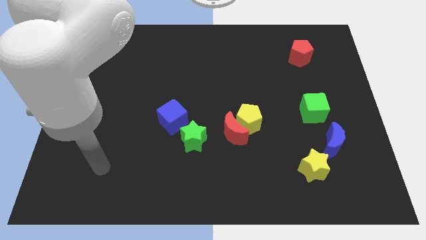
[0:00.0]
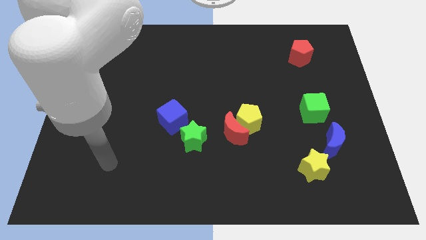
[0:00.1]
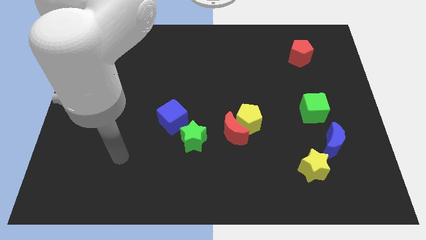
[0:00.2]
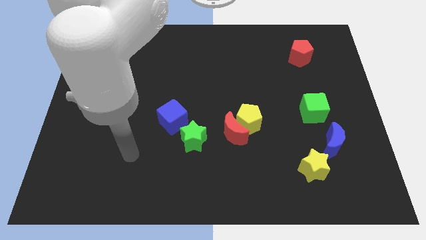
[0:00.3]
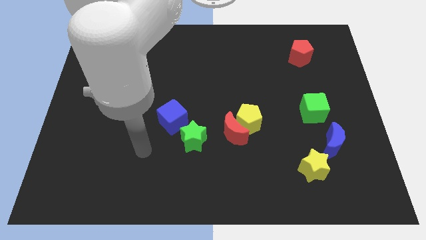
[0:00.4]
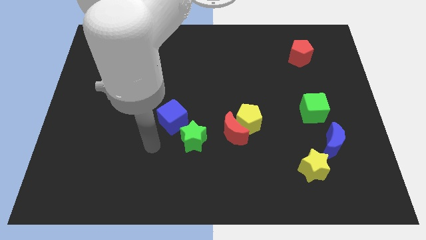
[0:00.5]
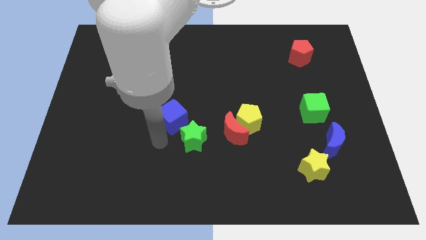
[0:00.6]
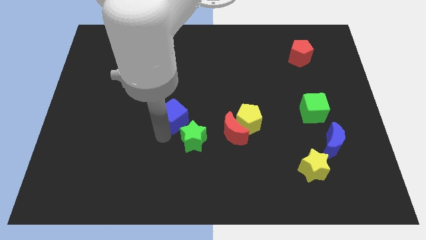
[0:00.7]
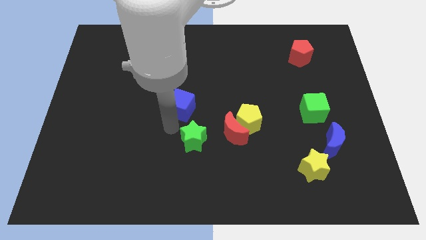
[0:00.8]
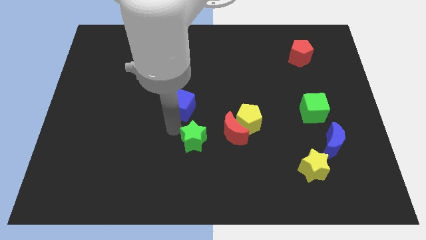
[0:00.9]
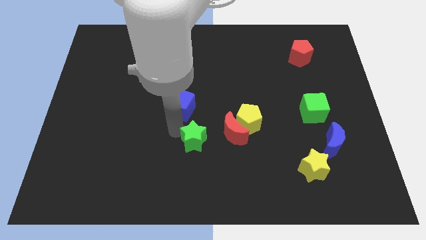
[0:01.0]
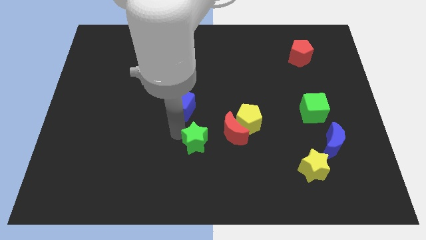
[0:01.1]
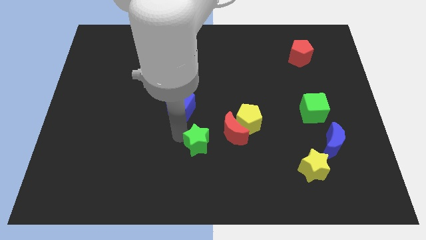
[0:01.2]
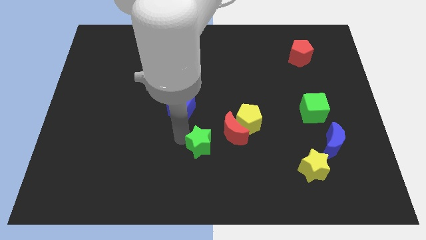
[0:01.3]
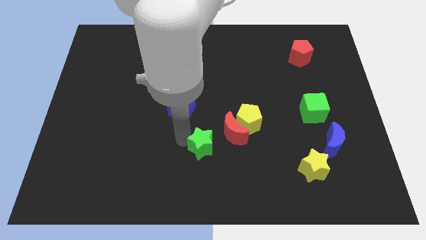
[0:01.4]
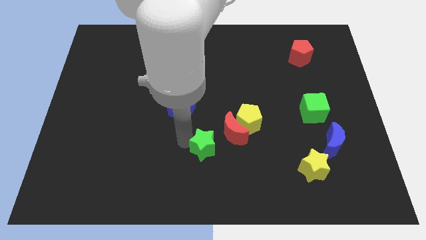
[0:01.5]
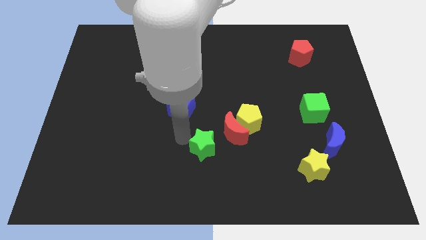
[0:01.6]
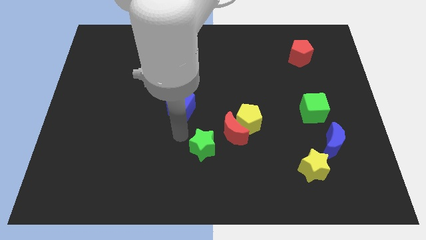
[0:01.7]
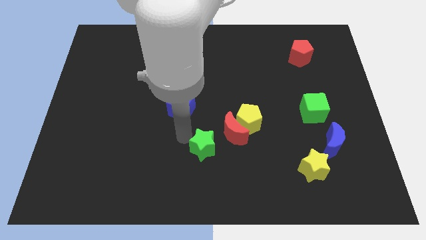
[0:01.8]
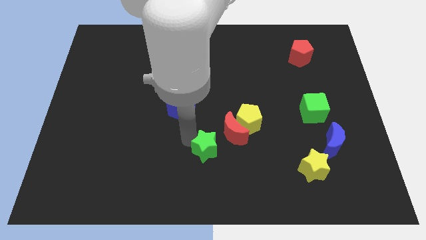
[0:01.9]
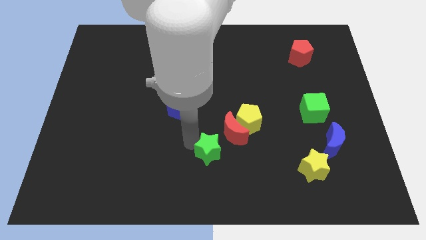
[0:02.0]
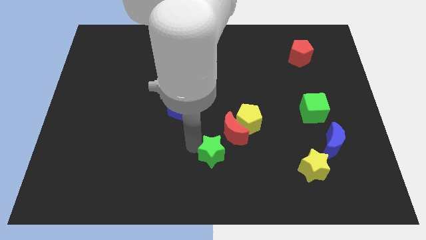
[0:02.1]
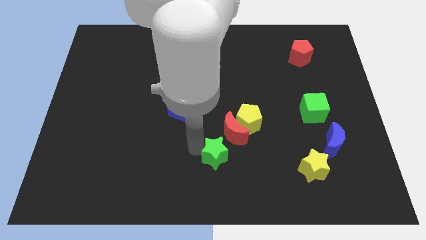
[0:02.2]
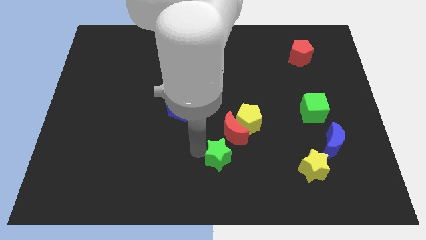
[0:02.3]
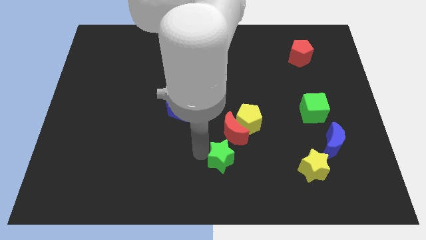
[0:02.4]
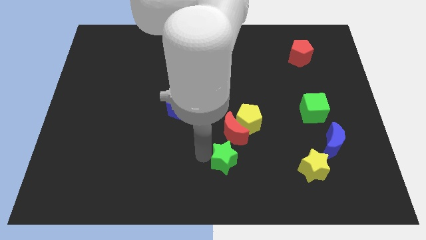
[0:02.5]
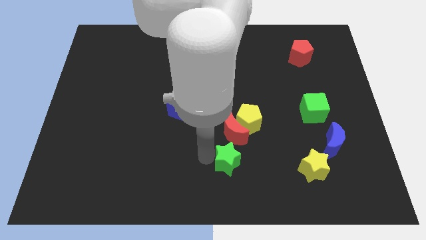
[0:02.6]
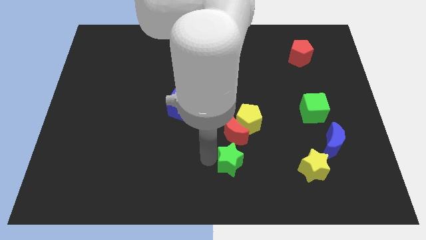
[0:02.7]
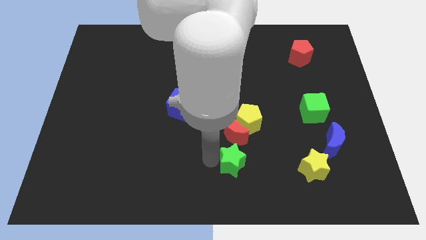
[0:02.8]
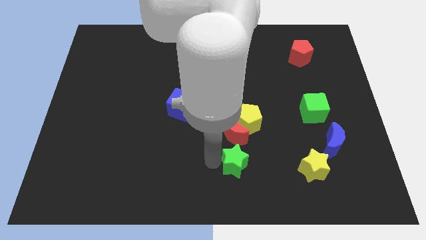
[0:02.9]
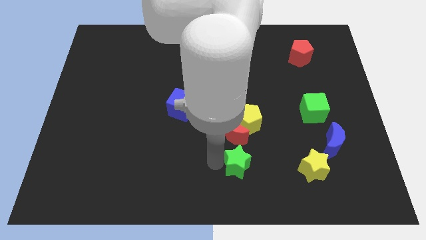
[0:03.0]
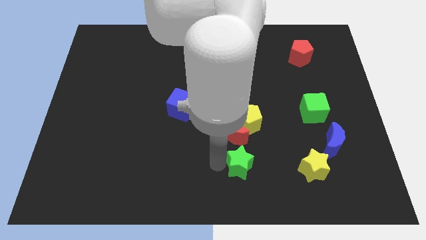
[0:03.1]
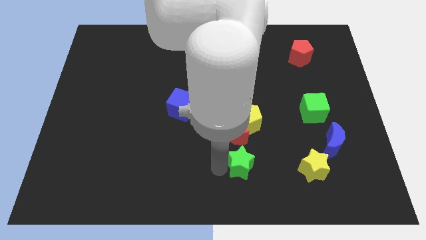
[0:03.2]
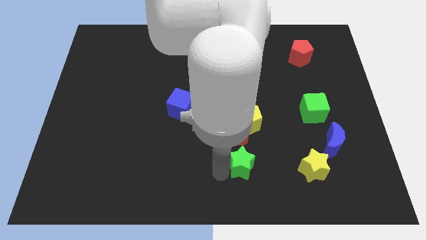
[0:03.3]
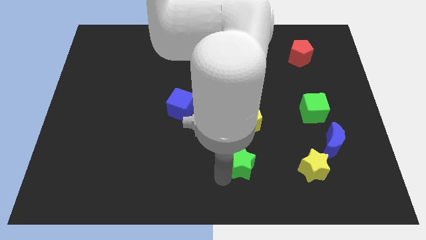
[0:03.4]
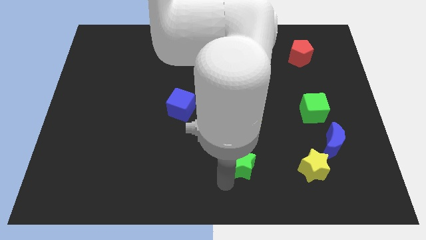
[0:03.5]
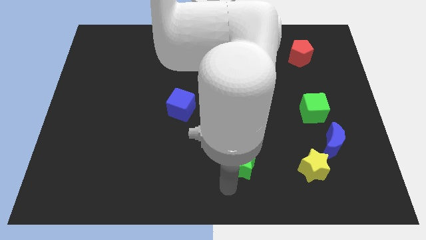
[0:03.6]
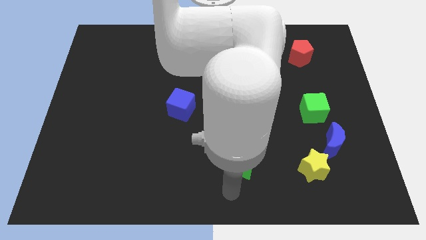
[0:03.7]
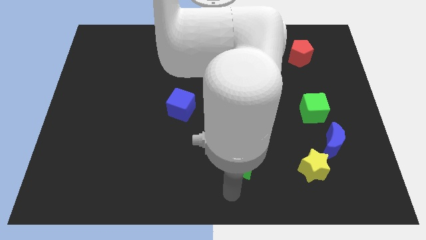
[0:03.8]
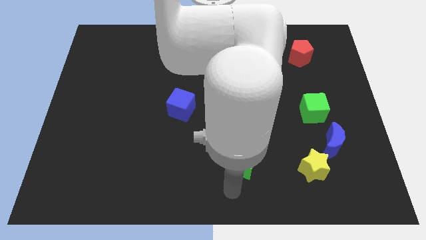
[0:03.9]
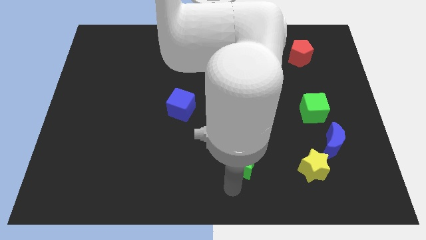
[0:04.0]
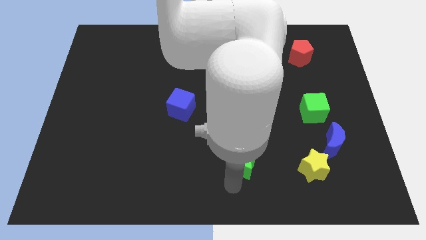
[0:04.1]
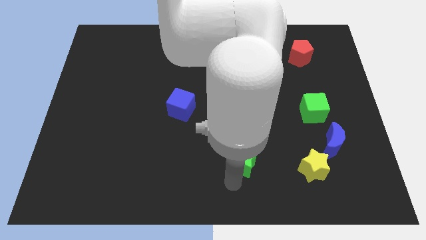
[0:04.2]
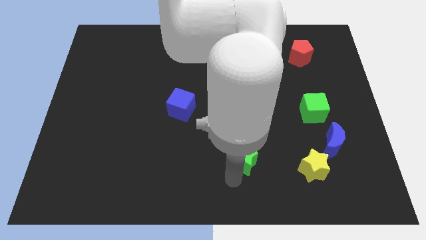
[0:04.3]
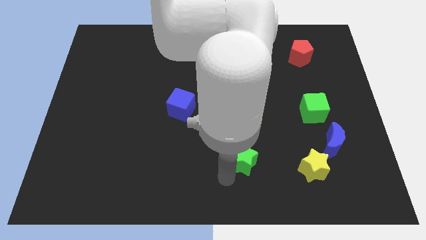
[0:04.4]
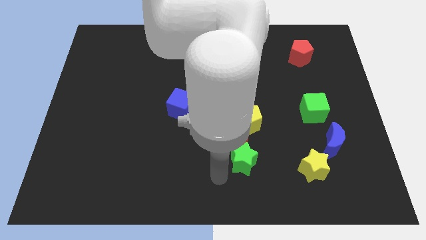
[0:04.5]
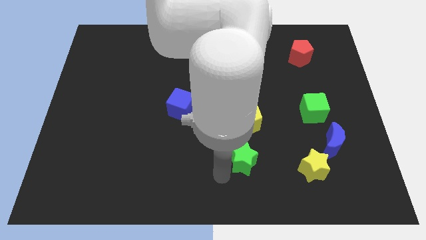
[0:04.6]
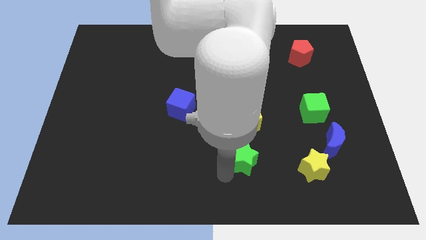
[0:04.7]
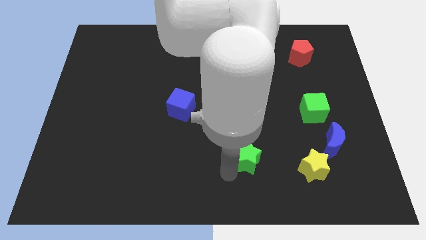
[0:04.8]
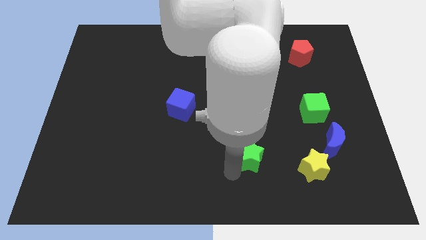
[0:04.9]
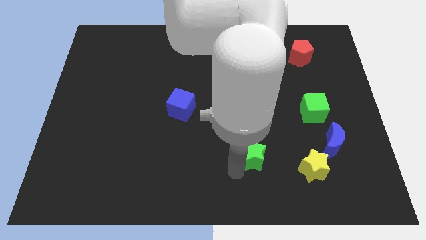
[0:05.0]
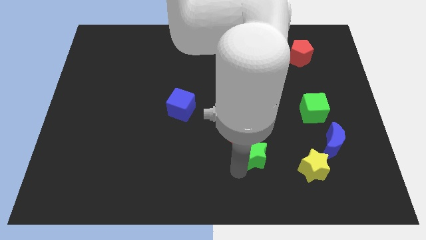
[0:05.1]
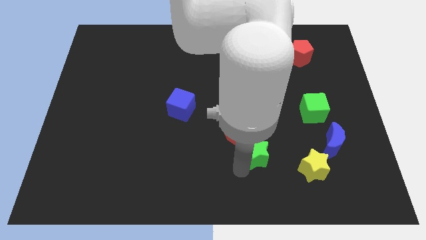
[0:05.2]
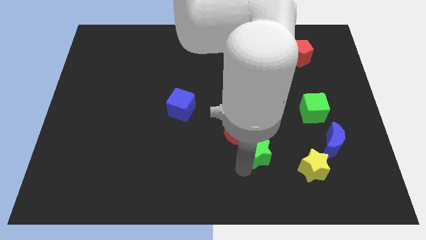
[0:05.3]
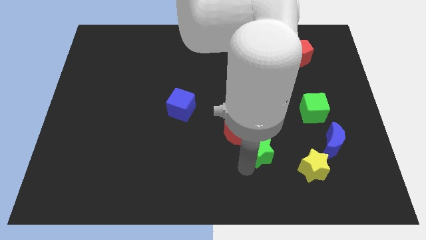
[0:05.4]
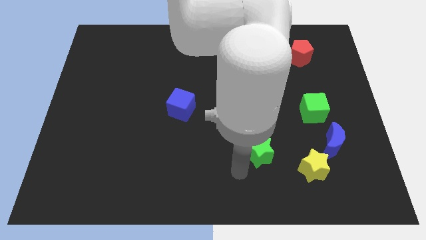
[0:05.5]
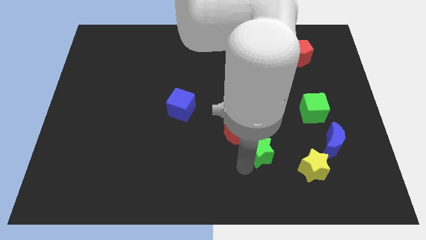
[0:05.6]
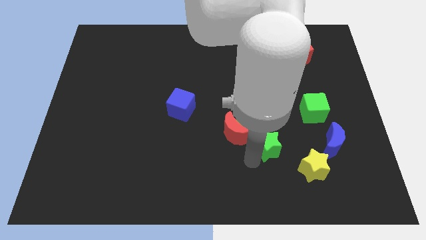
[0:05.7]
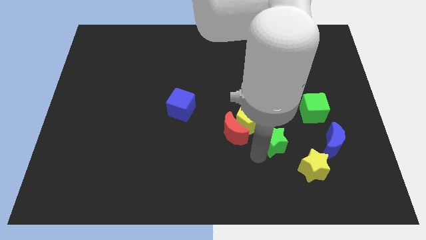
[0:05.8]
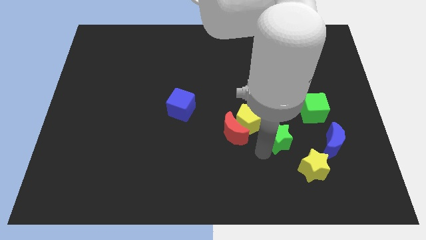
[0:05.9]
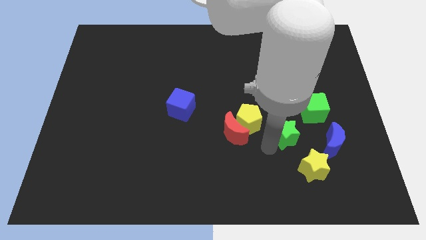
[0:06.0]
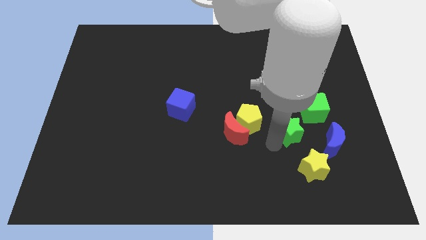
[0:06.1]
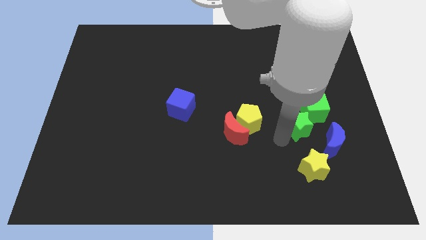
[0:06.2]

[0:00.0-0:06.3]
push the green star close to the green cube

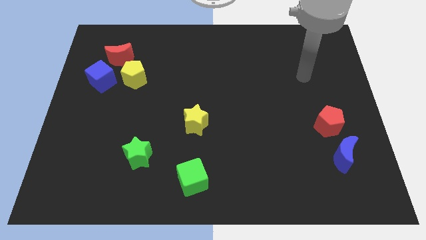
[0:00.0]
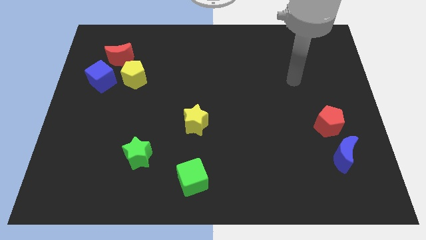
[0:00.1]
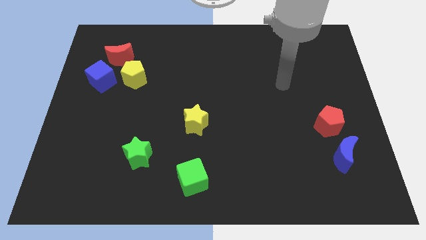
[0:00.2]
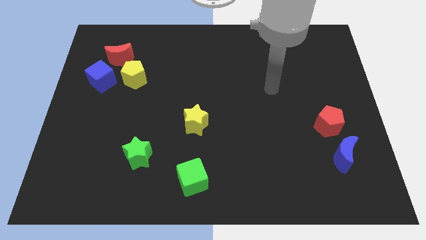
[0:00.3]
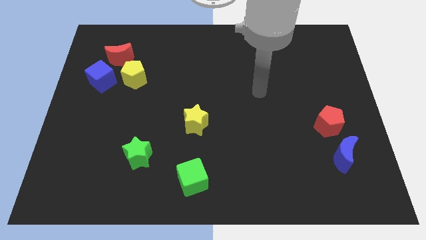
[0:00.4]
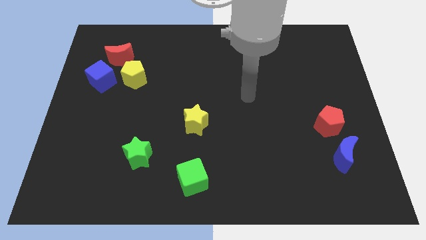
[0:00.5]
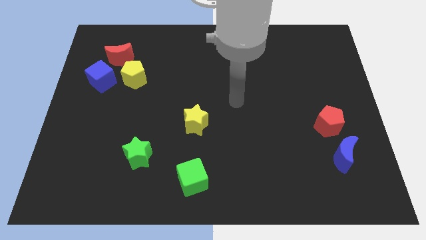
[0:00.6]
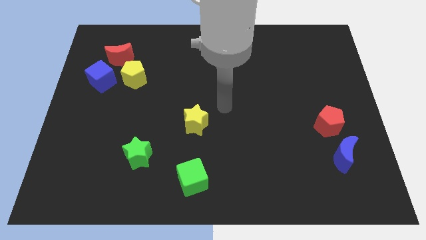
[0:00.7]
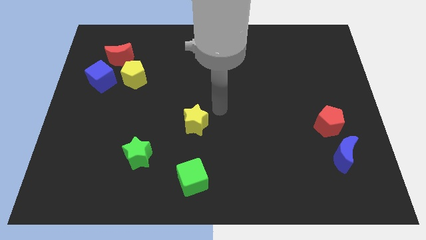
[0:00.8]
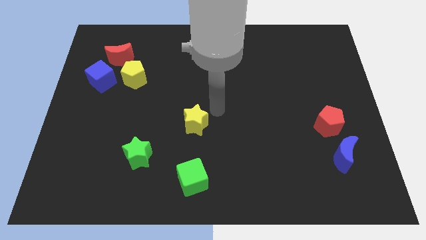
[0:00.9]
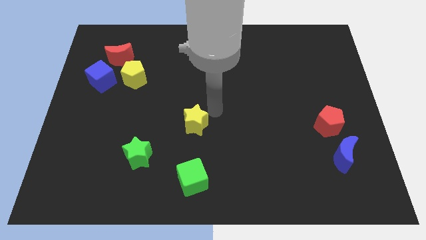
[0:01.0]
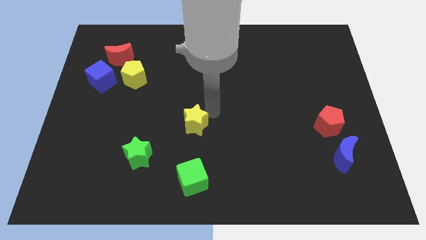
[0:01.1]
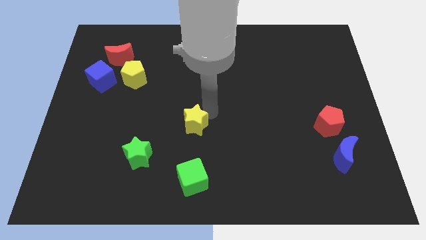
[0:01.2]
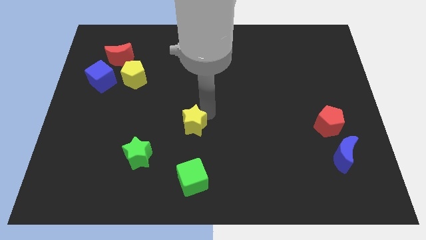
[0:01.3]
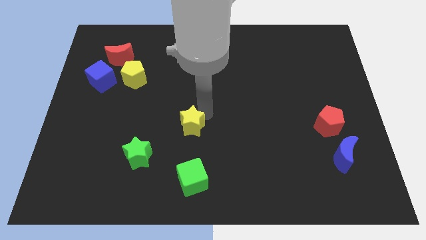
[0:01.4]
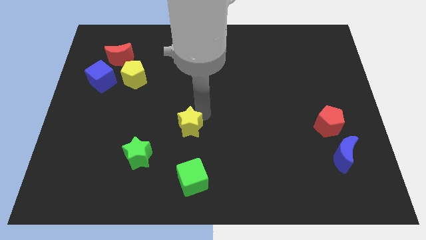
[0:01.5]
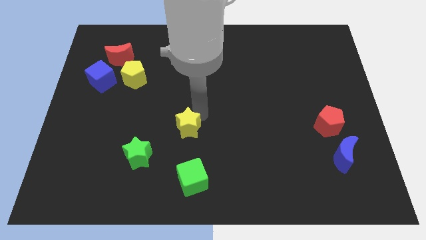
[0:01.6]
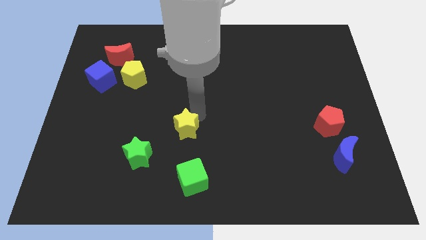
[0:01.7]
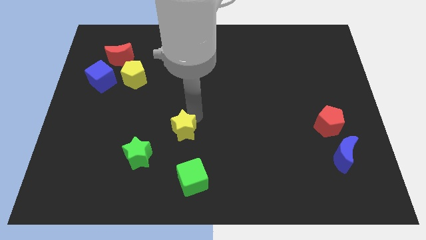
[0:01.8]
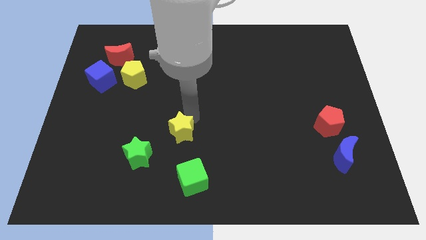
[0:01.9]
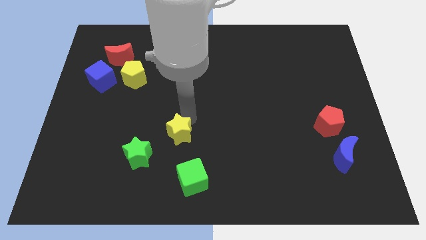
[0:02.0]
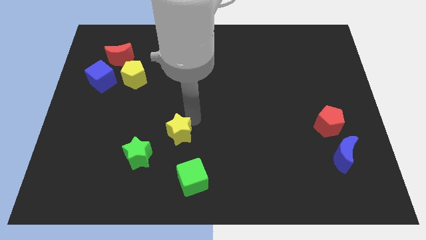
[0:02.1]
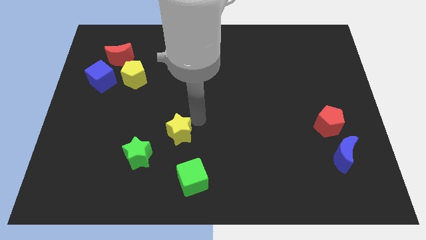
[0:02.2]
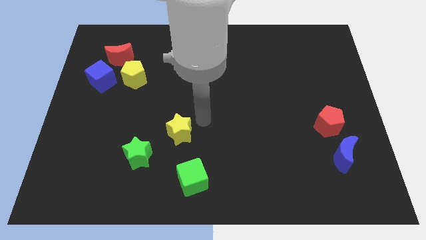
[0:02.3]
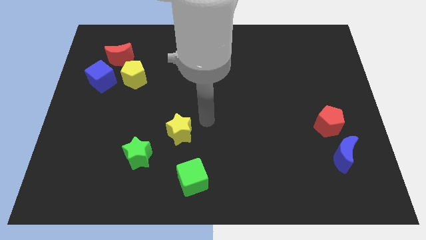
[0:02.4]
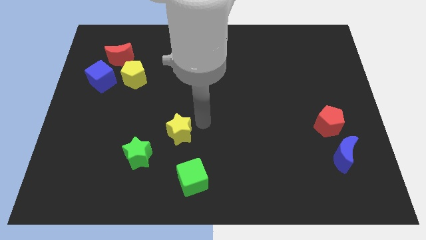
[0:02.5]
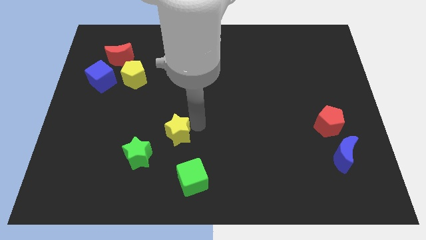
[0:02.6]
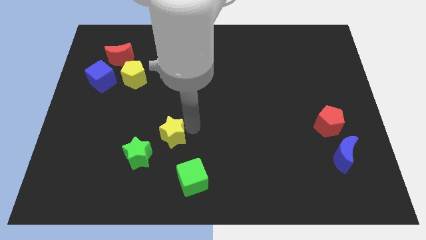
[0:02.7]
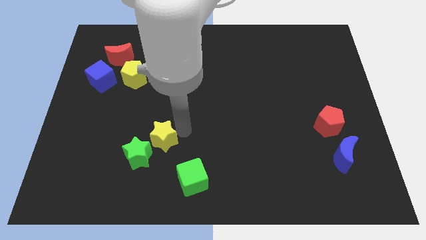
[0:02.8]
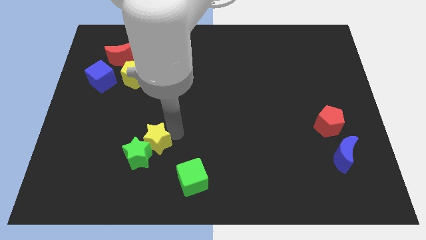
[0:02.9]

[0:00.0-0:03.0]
push the yellow star close to the green star
